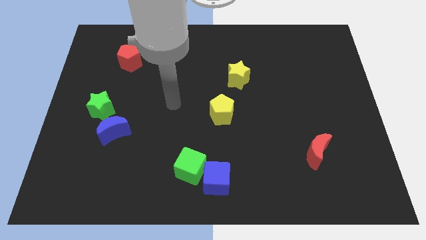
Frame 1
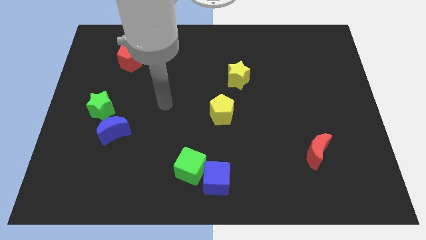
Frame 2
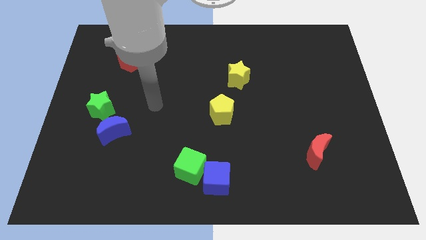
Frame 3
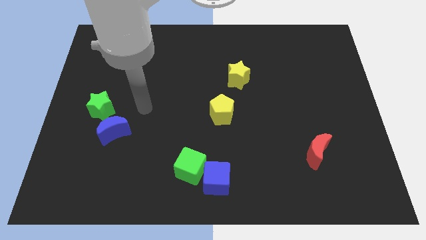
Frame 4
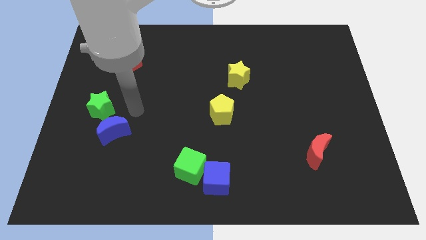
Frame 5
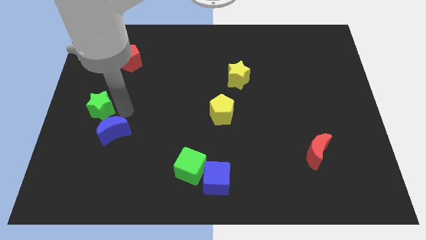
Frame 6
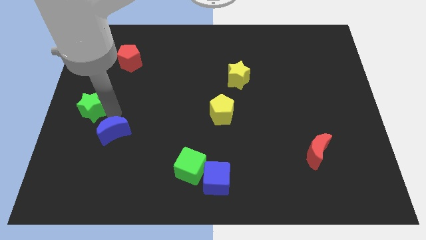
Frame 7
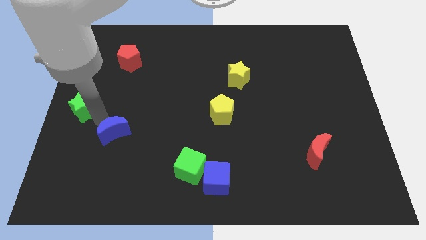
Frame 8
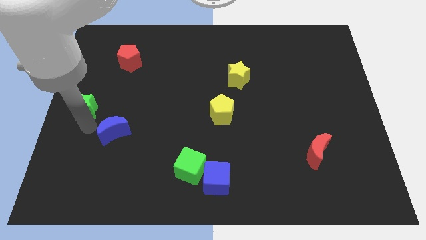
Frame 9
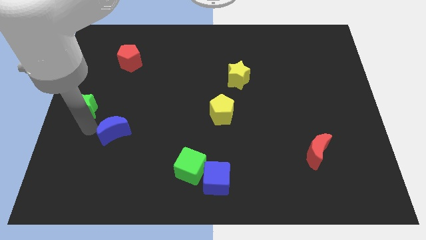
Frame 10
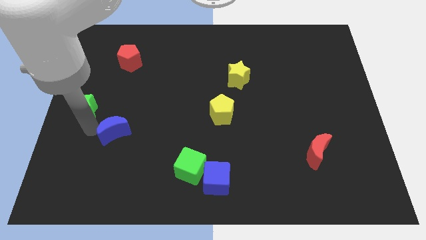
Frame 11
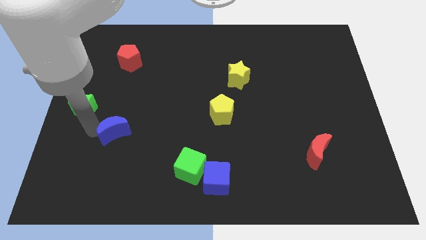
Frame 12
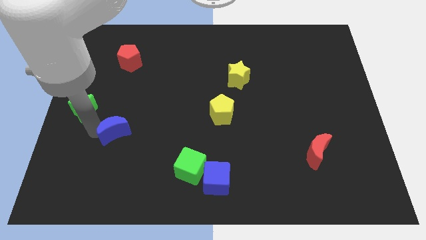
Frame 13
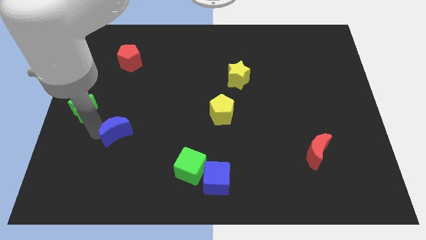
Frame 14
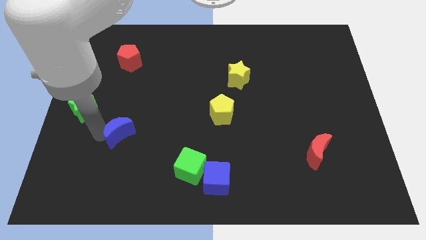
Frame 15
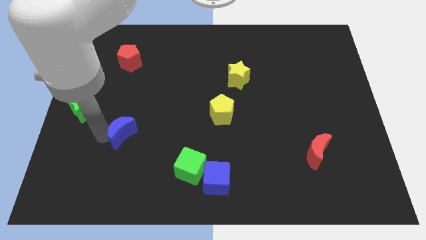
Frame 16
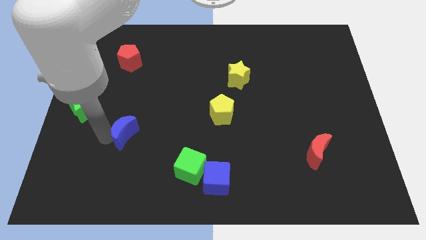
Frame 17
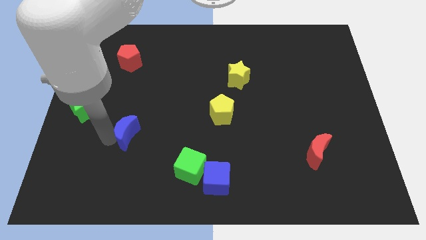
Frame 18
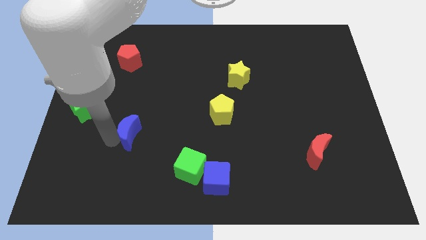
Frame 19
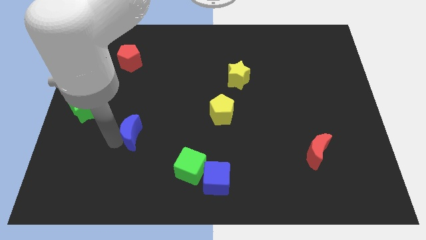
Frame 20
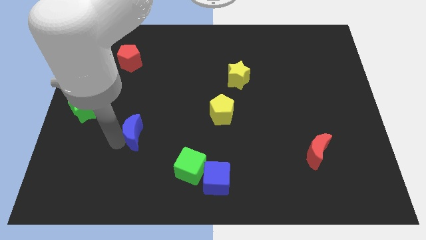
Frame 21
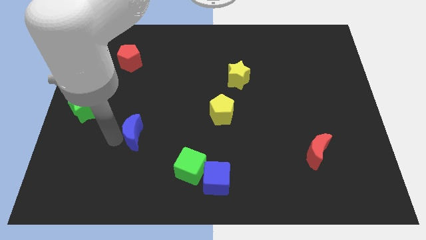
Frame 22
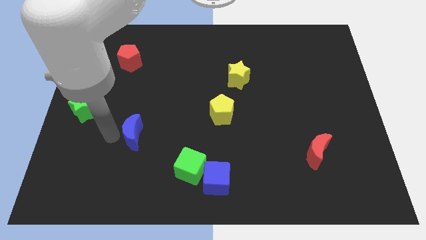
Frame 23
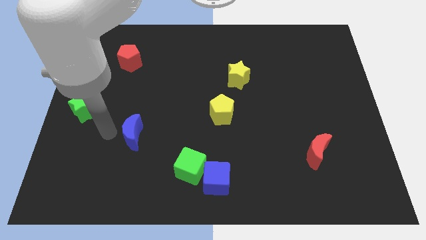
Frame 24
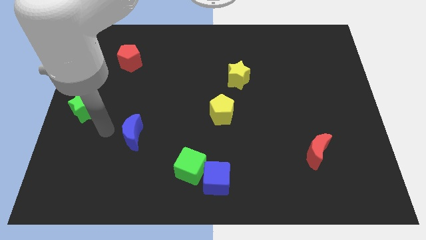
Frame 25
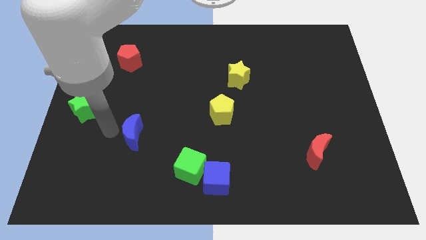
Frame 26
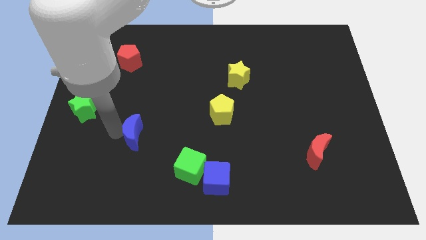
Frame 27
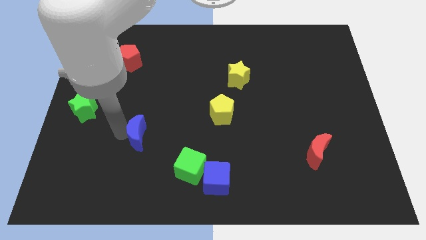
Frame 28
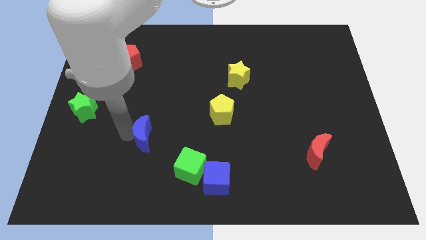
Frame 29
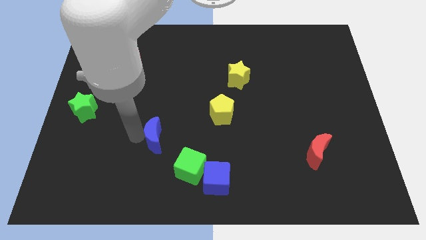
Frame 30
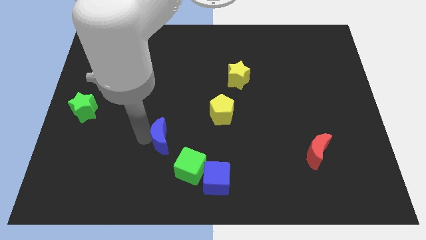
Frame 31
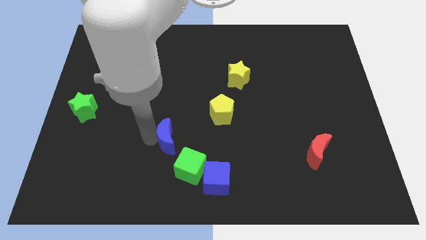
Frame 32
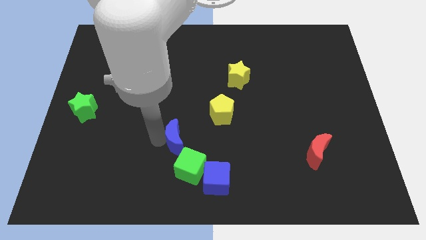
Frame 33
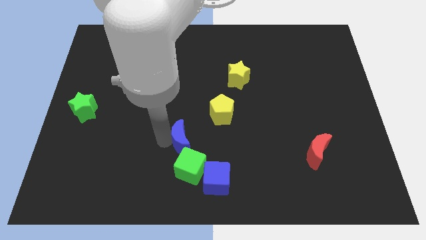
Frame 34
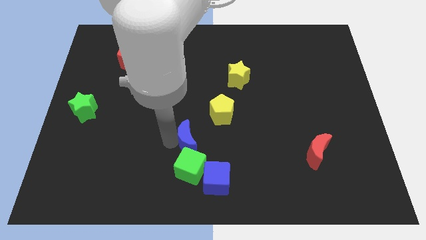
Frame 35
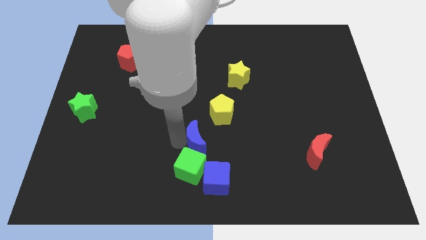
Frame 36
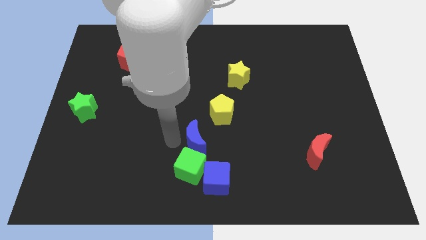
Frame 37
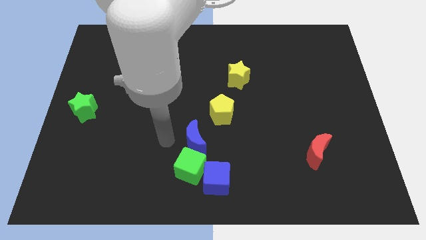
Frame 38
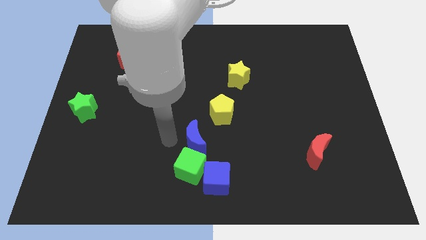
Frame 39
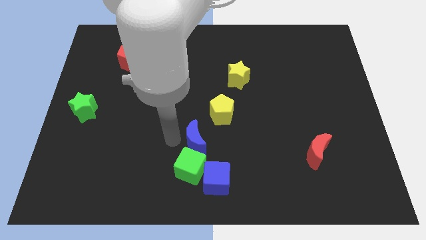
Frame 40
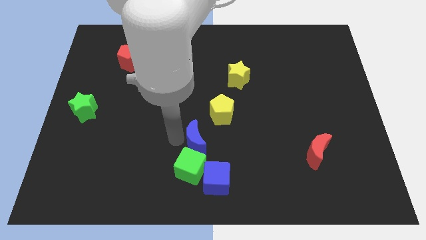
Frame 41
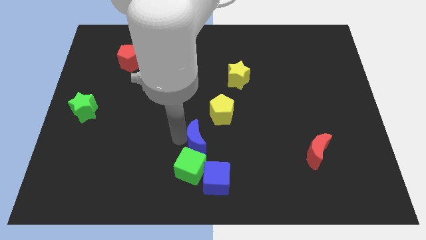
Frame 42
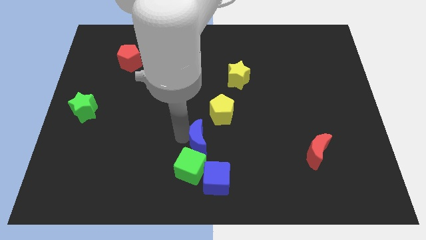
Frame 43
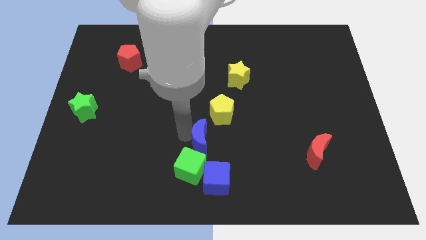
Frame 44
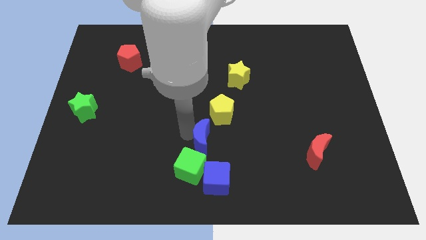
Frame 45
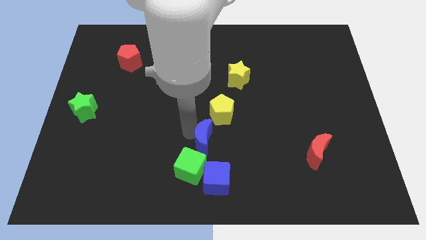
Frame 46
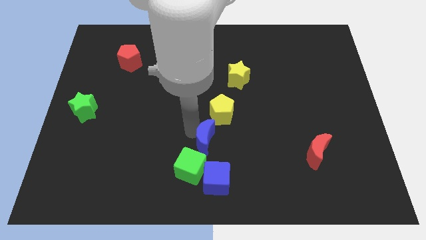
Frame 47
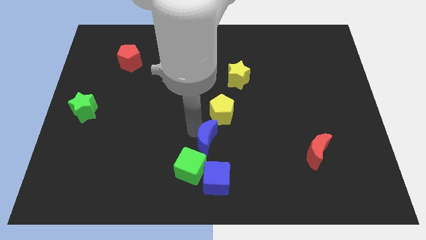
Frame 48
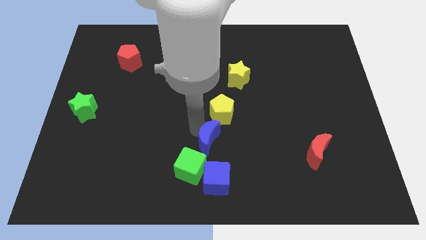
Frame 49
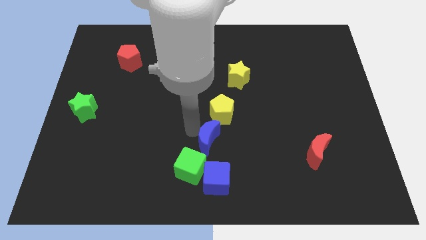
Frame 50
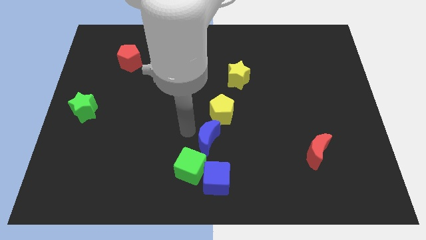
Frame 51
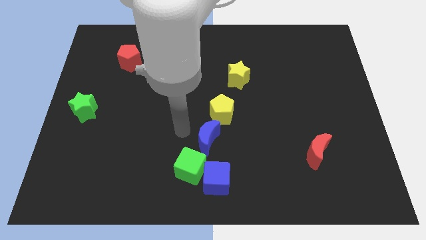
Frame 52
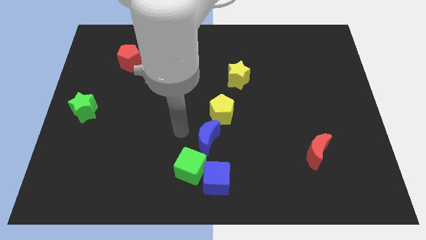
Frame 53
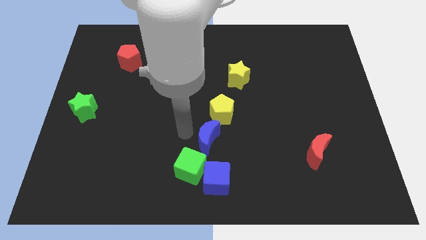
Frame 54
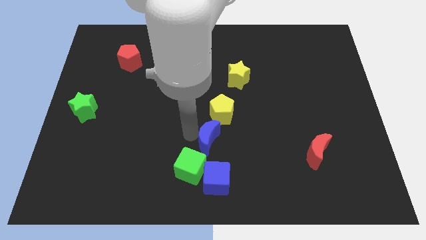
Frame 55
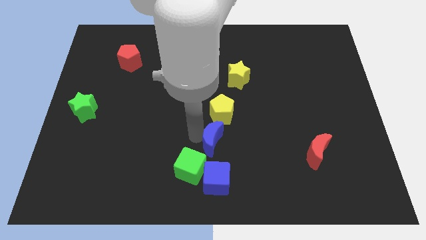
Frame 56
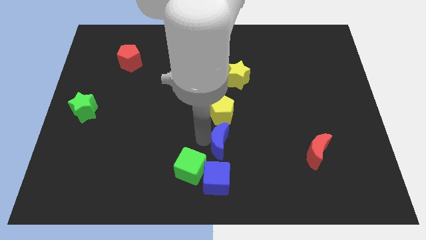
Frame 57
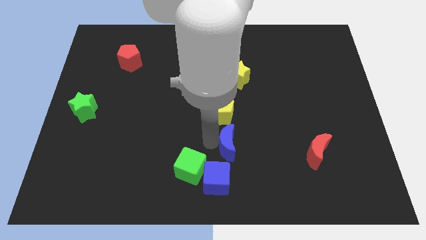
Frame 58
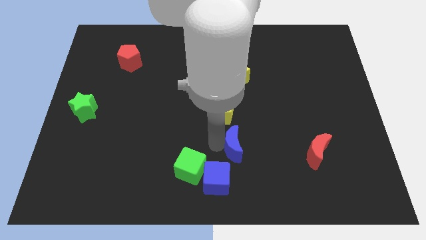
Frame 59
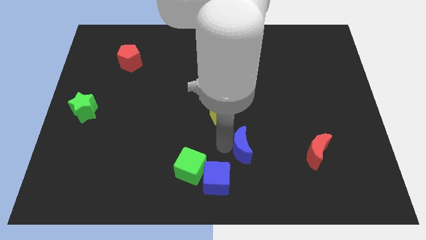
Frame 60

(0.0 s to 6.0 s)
slide the blue moon just left of the red moon

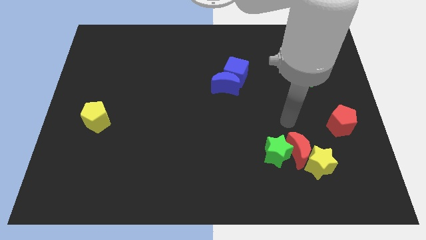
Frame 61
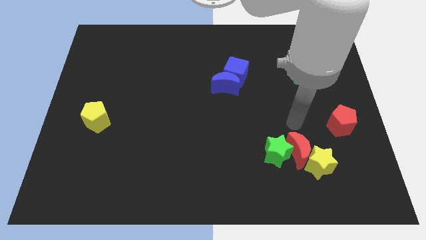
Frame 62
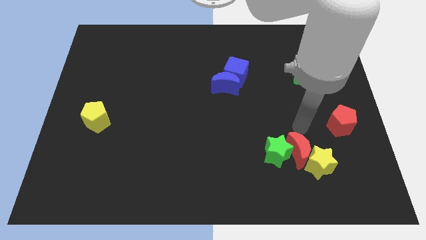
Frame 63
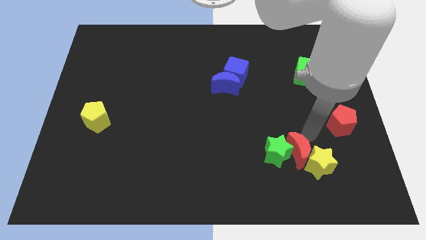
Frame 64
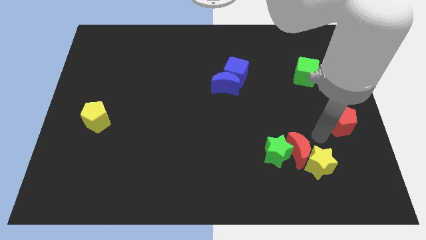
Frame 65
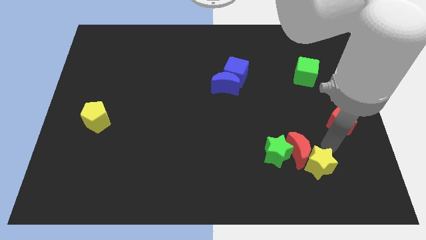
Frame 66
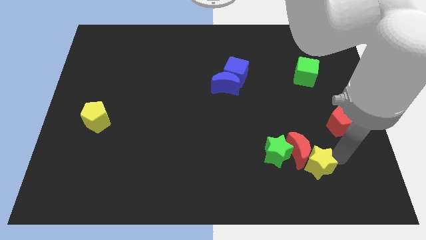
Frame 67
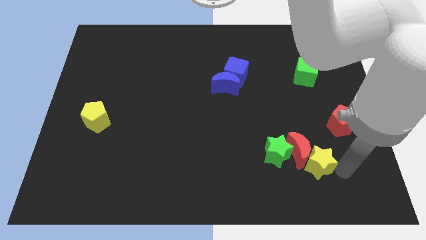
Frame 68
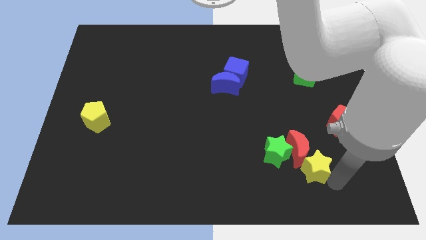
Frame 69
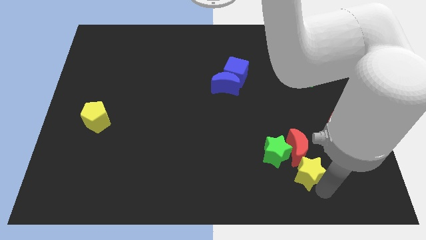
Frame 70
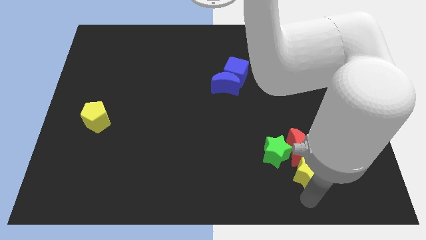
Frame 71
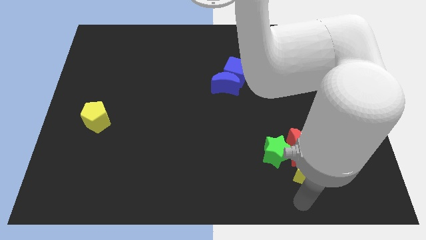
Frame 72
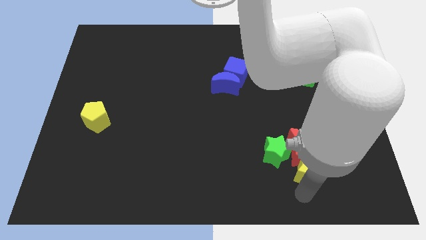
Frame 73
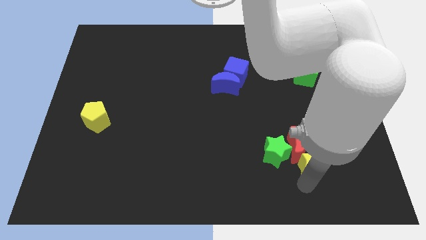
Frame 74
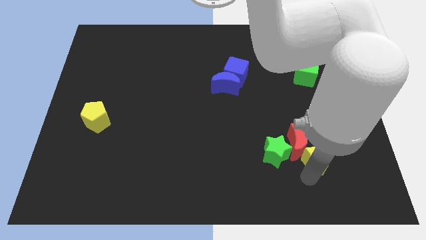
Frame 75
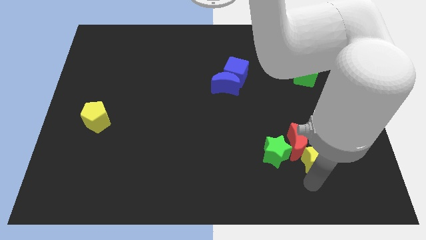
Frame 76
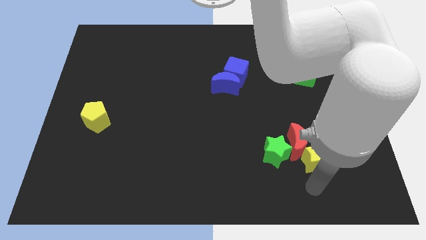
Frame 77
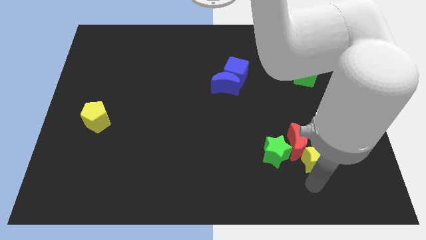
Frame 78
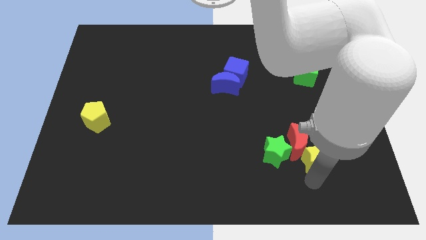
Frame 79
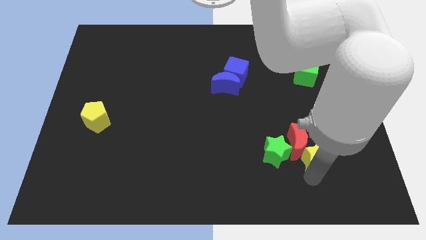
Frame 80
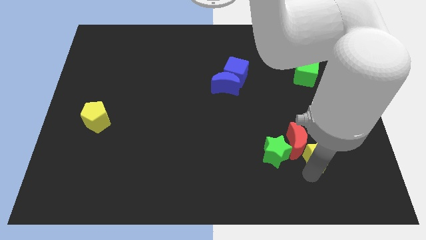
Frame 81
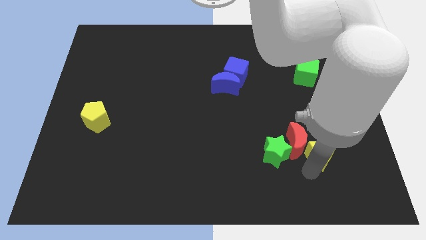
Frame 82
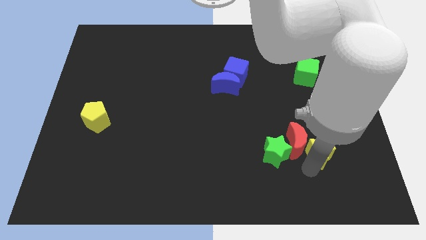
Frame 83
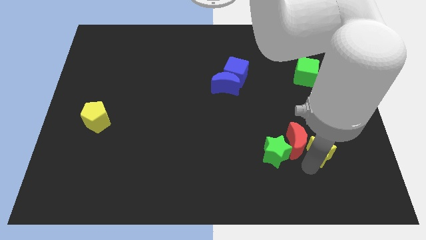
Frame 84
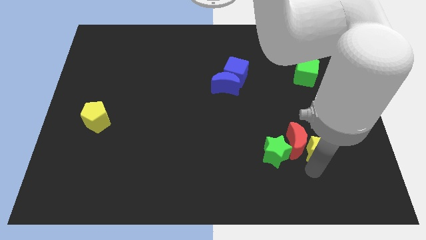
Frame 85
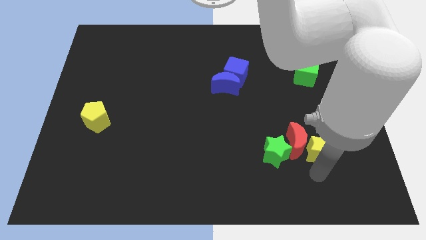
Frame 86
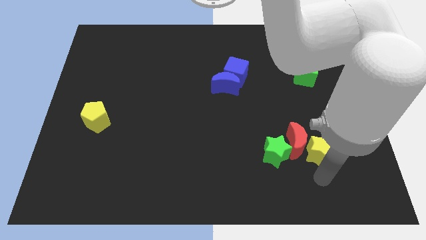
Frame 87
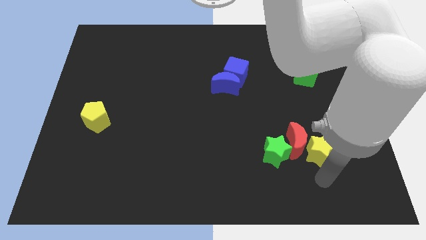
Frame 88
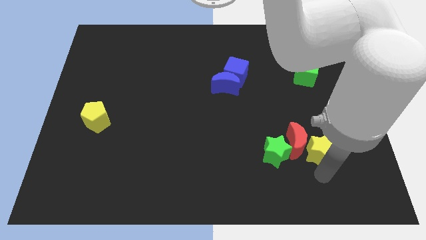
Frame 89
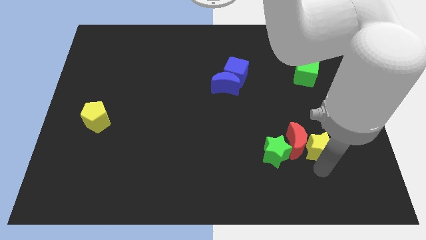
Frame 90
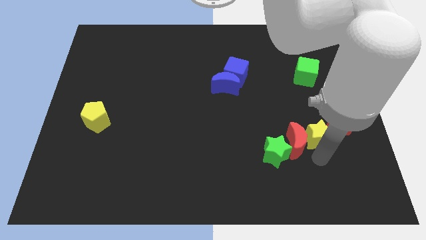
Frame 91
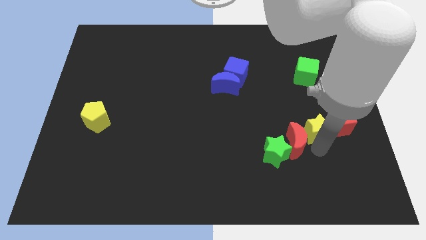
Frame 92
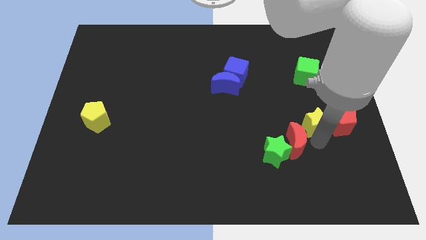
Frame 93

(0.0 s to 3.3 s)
put the yellow star to the top left side of the red pentagon
